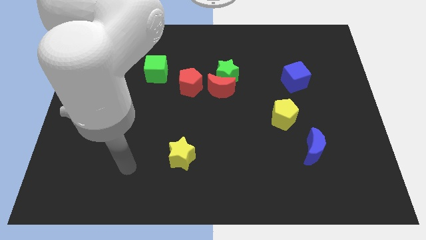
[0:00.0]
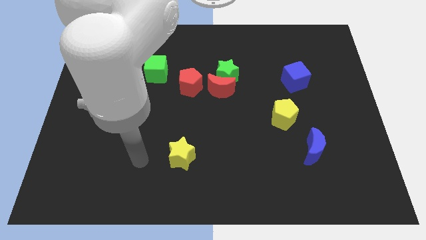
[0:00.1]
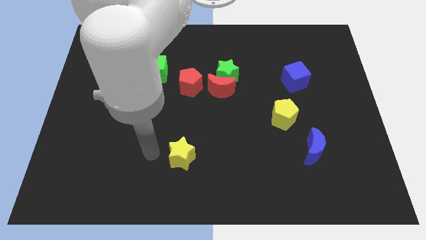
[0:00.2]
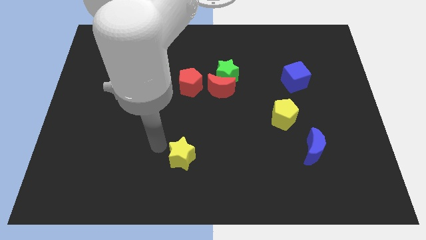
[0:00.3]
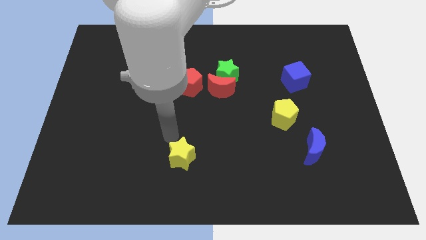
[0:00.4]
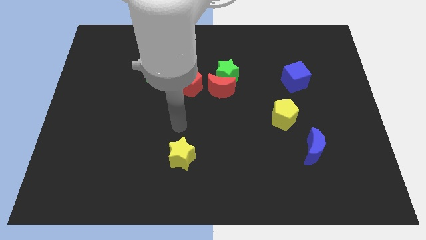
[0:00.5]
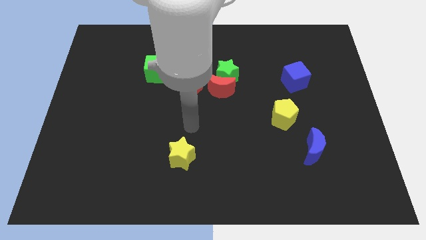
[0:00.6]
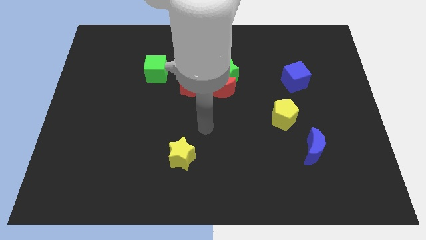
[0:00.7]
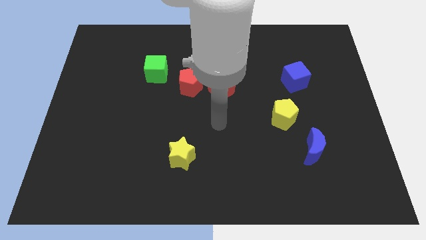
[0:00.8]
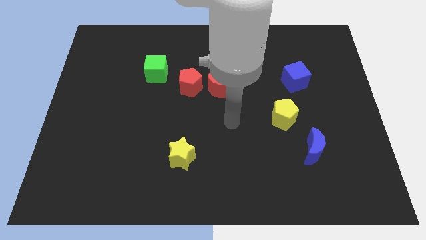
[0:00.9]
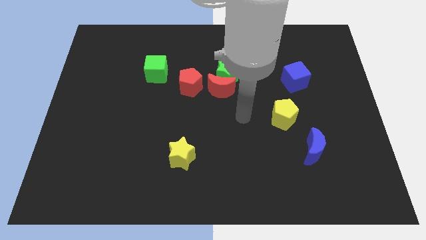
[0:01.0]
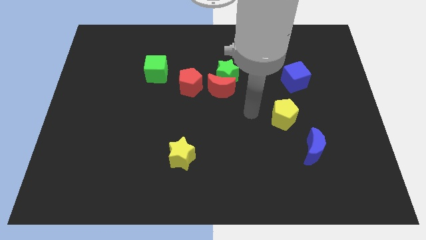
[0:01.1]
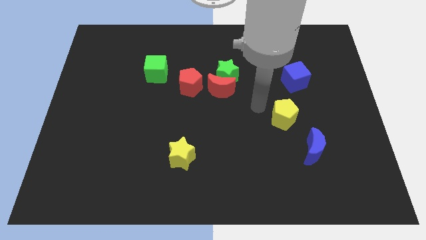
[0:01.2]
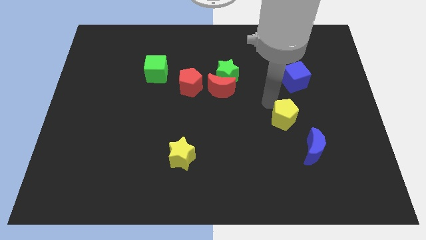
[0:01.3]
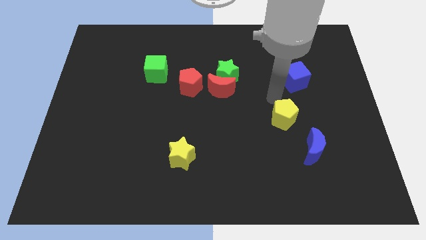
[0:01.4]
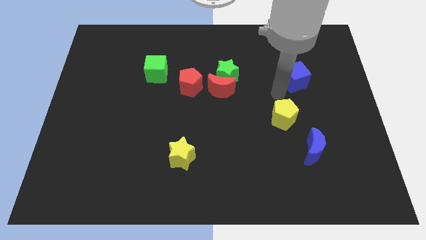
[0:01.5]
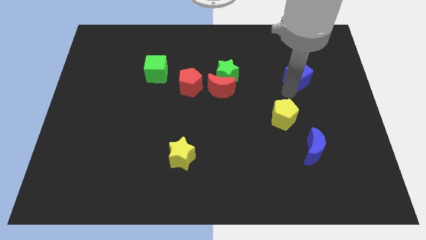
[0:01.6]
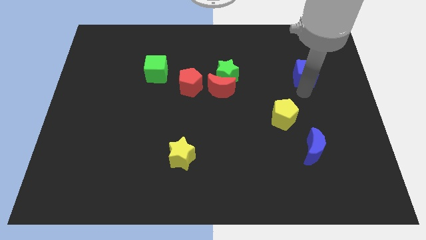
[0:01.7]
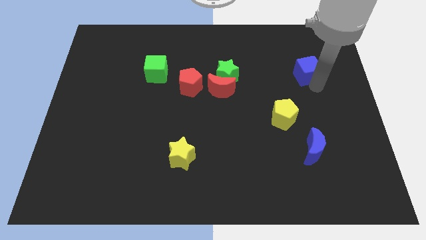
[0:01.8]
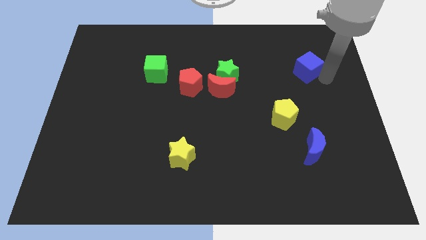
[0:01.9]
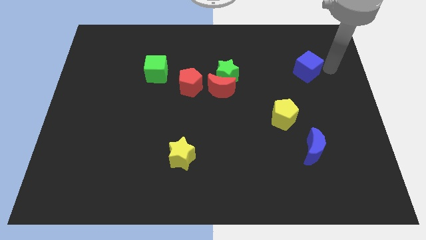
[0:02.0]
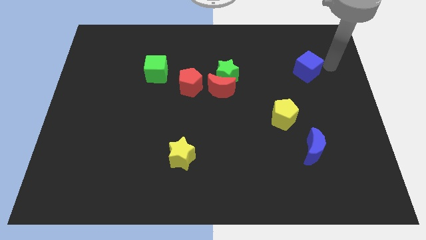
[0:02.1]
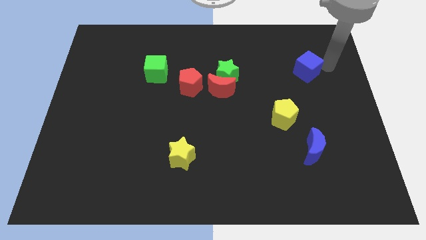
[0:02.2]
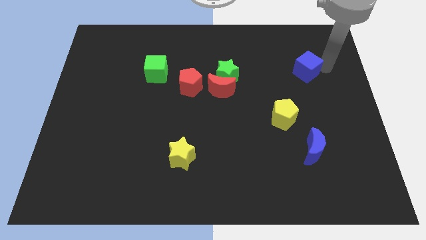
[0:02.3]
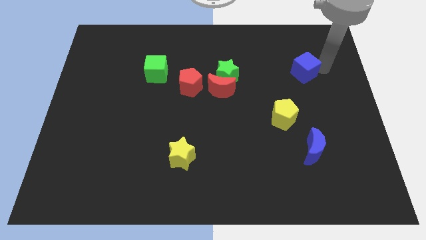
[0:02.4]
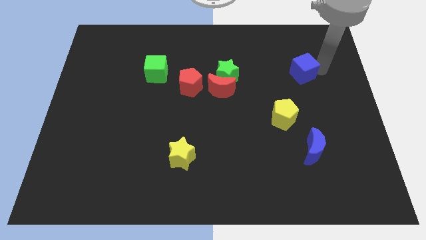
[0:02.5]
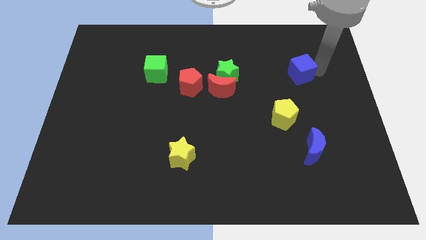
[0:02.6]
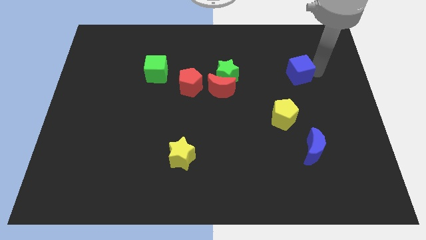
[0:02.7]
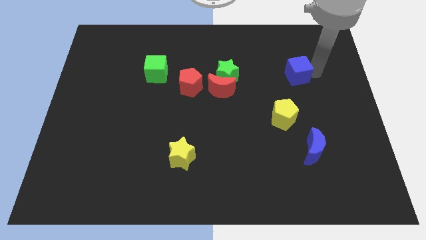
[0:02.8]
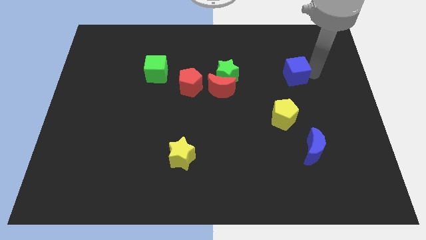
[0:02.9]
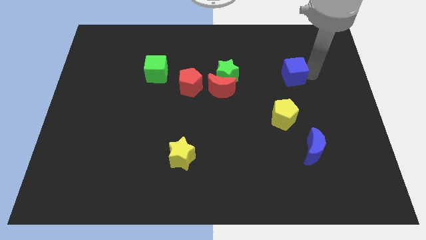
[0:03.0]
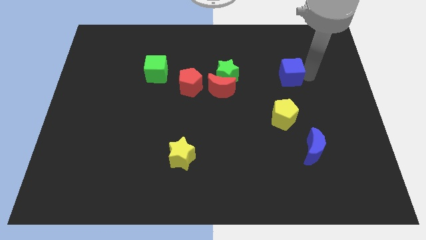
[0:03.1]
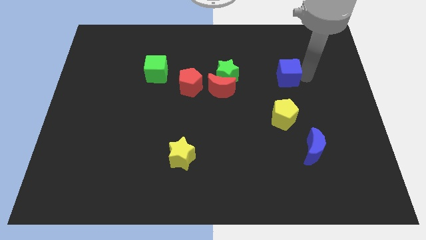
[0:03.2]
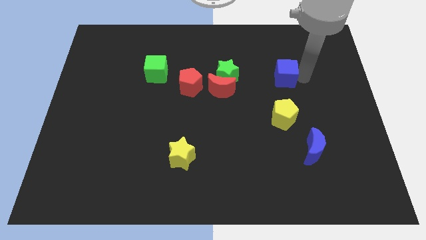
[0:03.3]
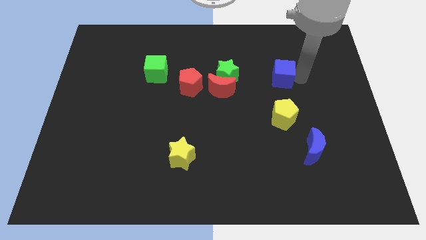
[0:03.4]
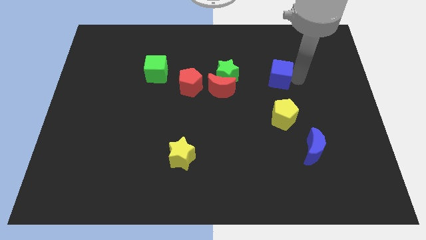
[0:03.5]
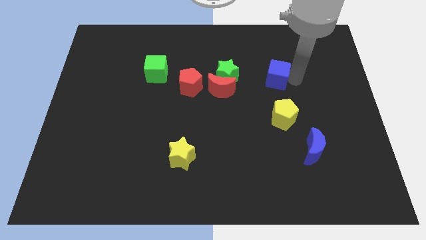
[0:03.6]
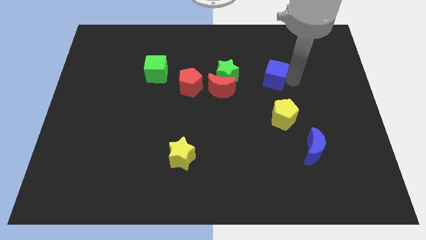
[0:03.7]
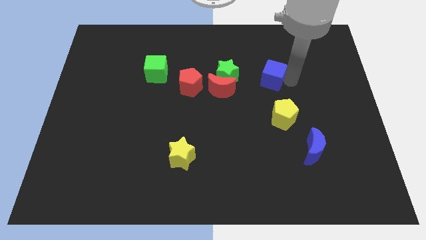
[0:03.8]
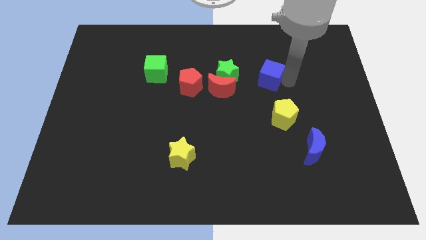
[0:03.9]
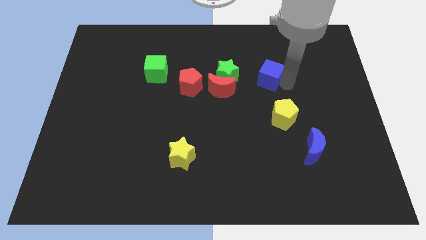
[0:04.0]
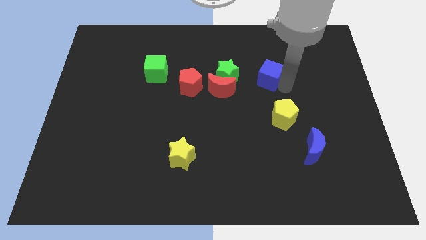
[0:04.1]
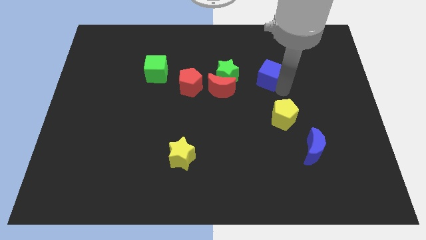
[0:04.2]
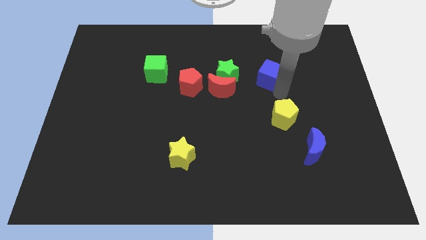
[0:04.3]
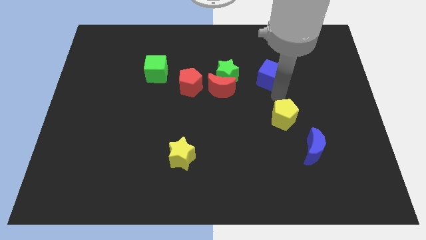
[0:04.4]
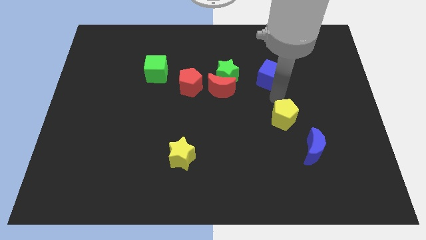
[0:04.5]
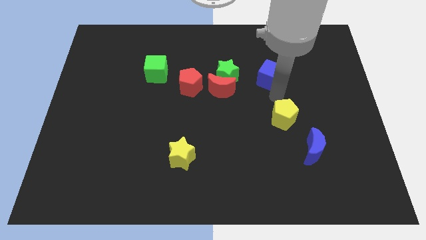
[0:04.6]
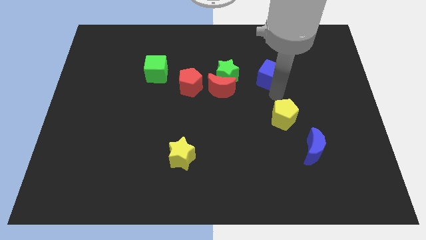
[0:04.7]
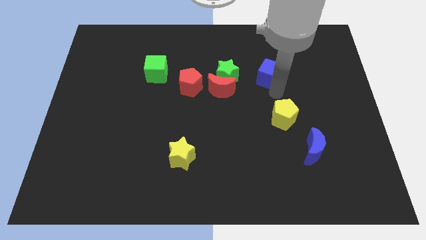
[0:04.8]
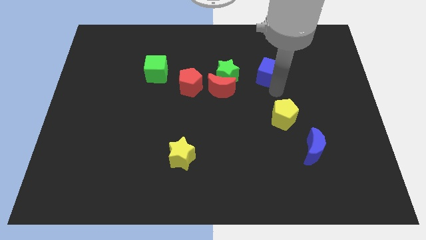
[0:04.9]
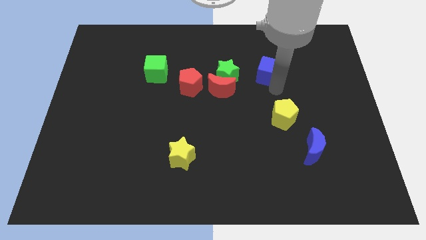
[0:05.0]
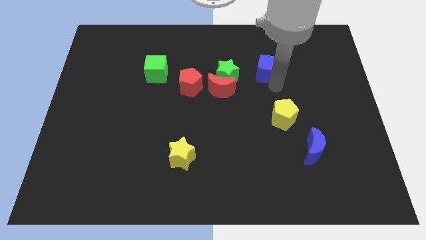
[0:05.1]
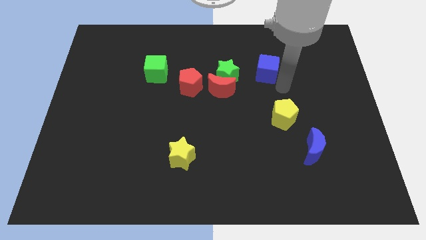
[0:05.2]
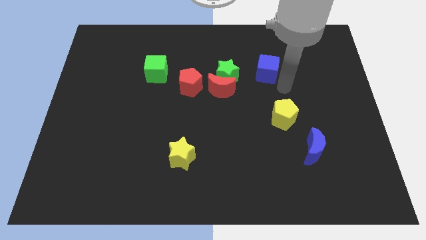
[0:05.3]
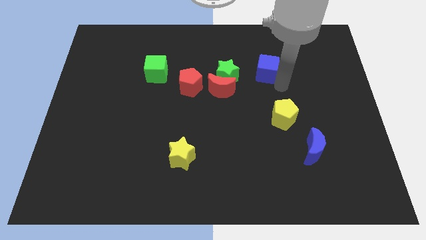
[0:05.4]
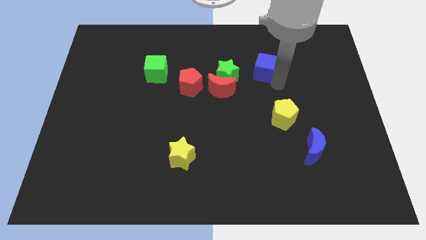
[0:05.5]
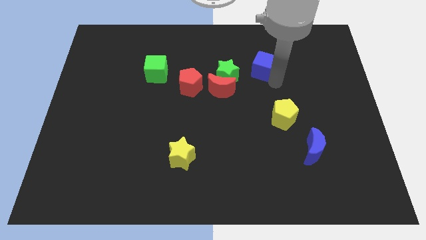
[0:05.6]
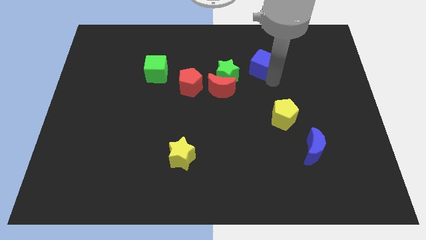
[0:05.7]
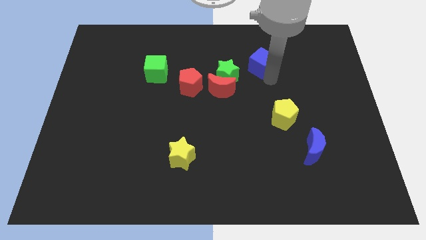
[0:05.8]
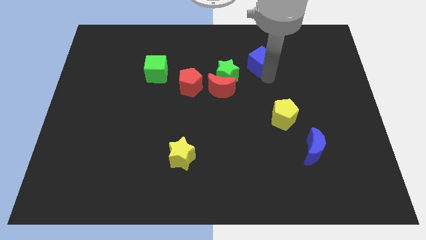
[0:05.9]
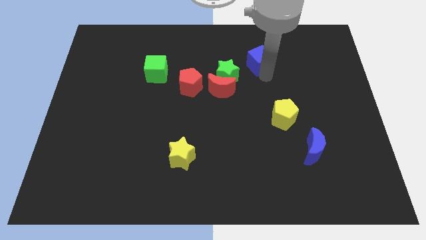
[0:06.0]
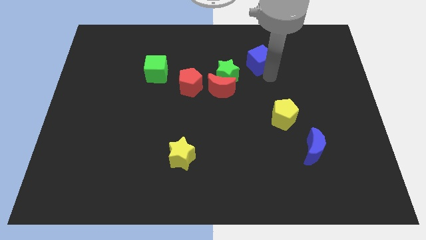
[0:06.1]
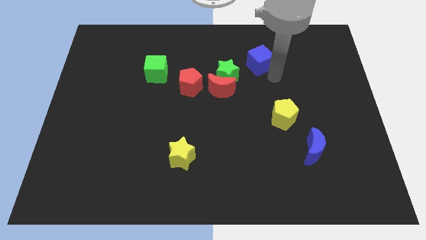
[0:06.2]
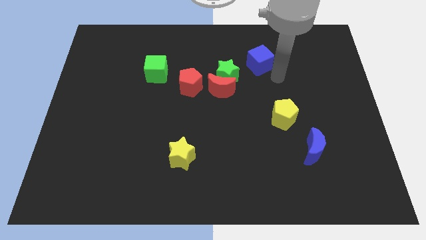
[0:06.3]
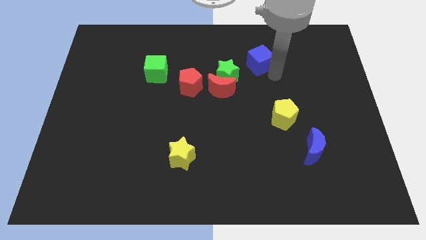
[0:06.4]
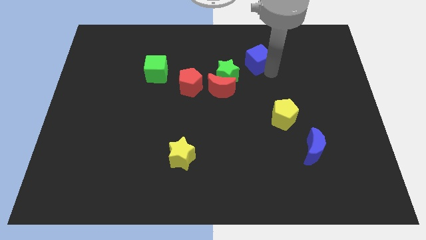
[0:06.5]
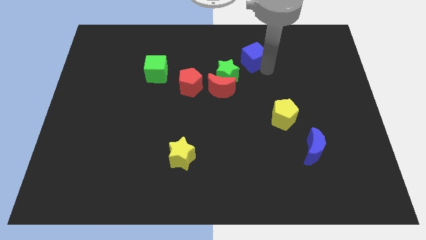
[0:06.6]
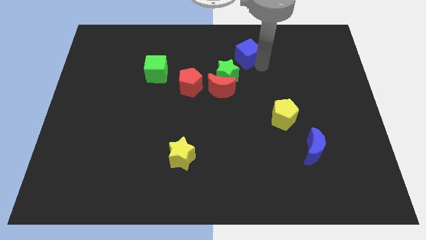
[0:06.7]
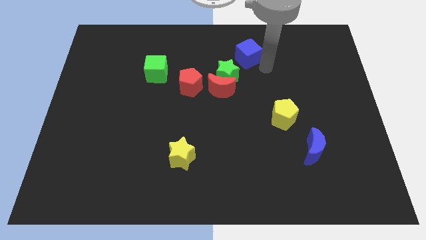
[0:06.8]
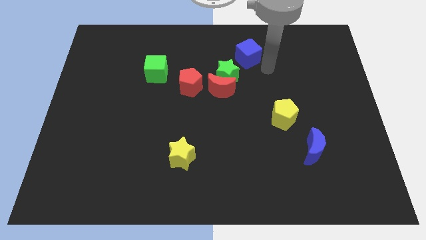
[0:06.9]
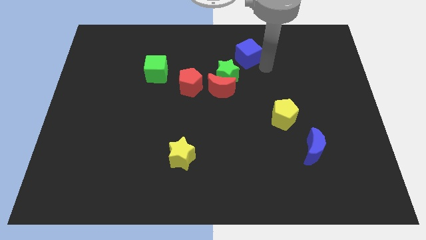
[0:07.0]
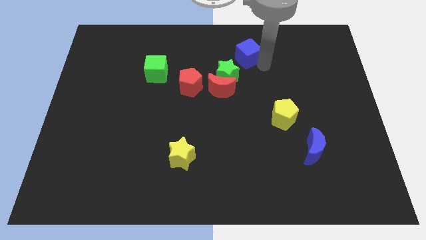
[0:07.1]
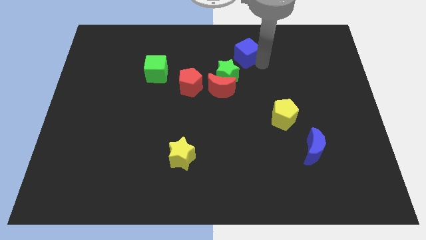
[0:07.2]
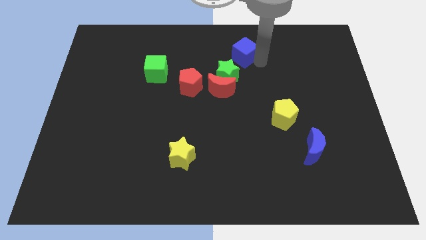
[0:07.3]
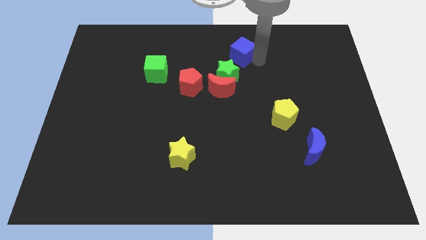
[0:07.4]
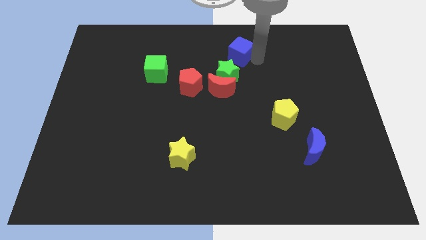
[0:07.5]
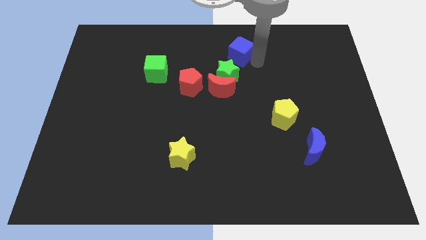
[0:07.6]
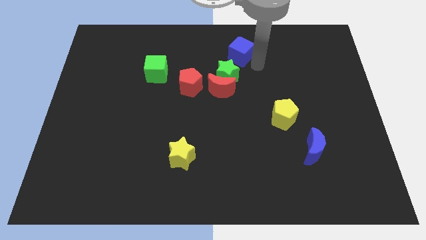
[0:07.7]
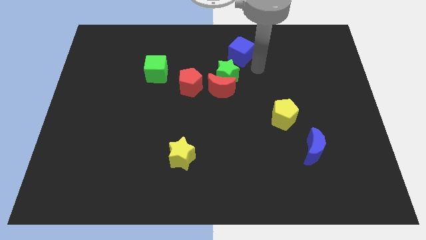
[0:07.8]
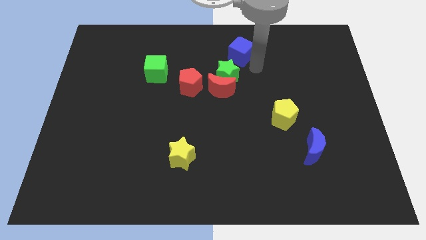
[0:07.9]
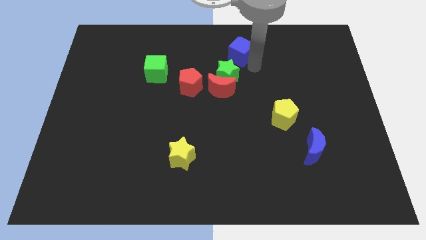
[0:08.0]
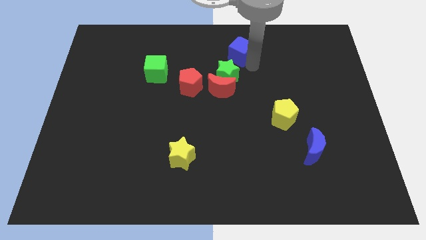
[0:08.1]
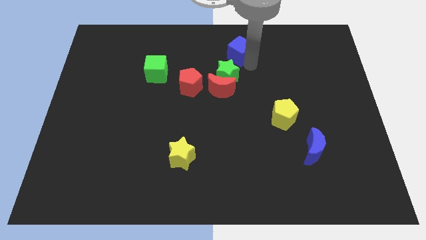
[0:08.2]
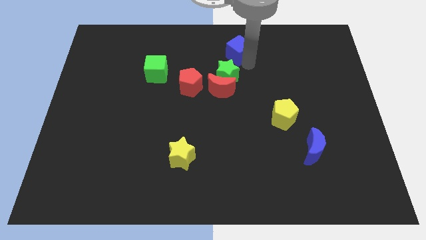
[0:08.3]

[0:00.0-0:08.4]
push the blue cube to the towards your base
